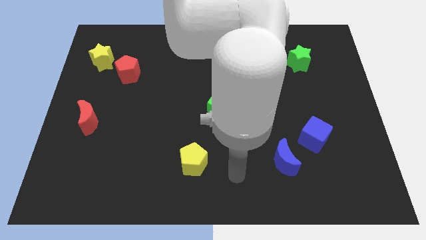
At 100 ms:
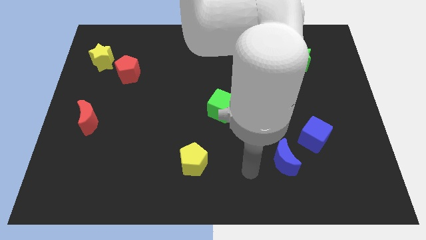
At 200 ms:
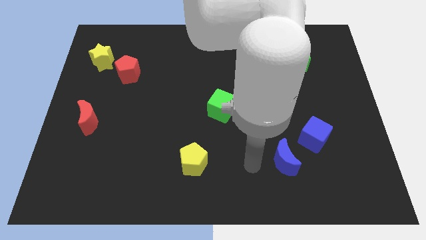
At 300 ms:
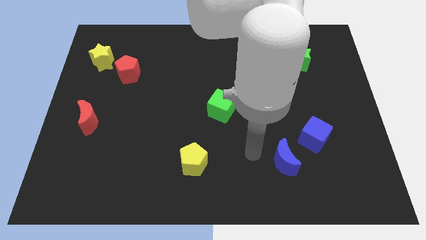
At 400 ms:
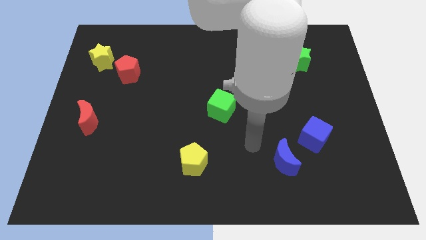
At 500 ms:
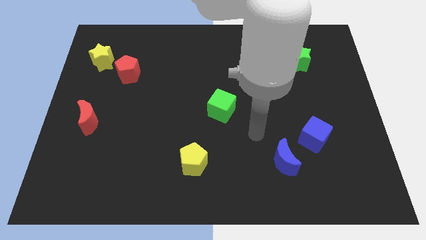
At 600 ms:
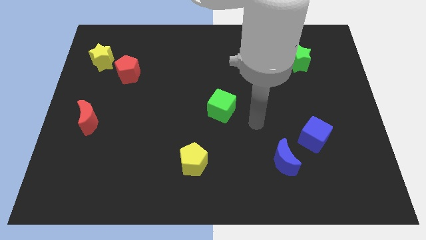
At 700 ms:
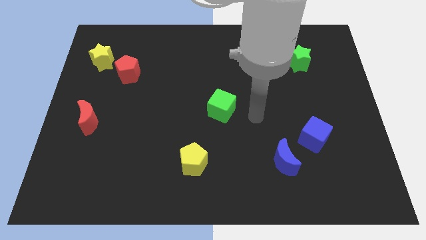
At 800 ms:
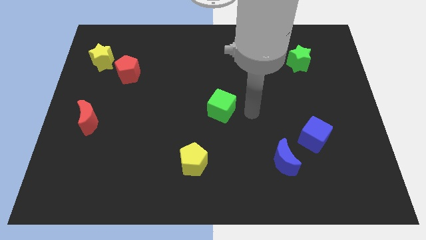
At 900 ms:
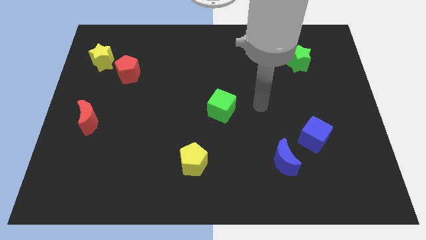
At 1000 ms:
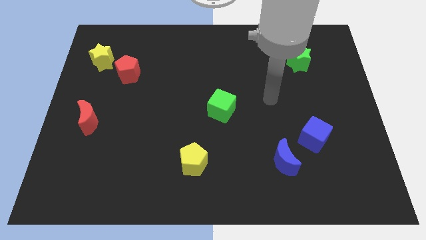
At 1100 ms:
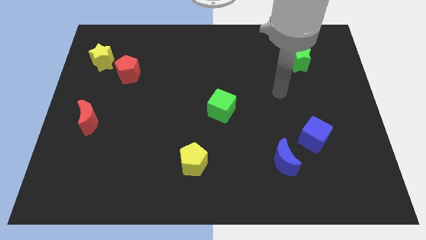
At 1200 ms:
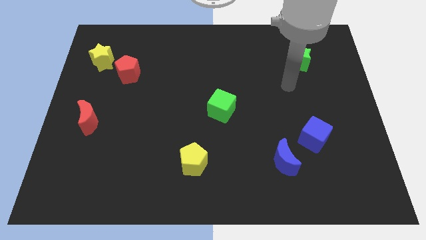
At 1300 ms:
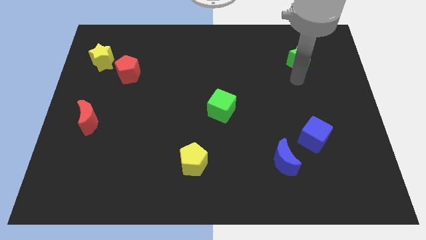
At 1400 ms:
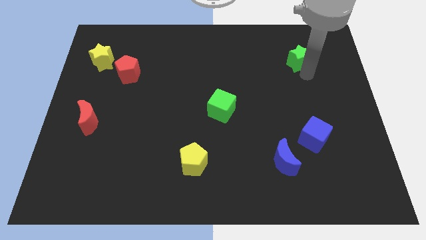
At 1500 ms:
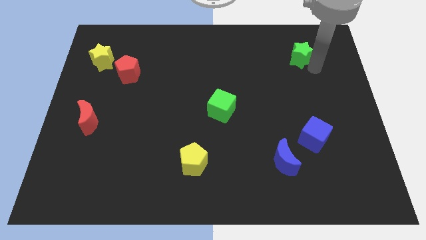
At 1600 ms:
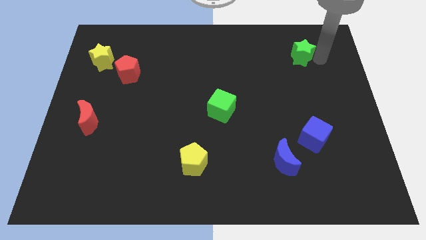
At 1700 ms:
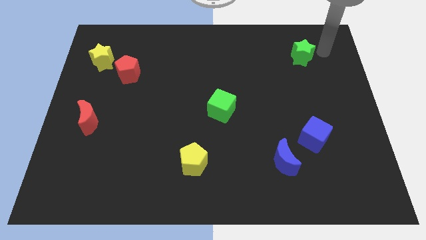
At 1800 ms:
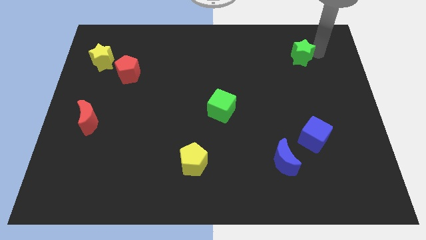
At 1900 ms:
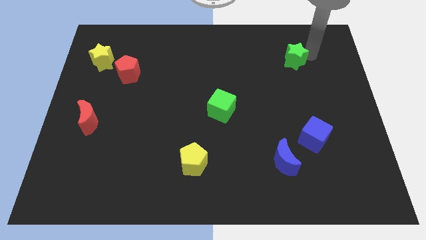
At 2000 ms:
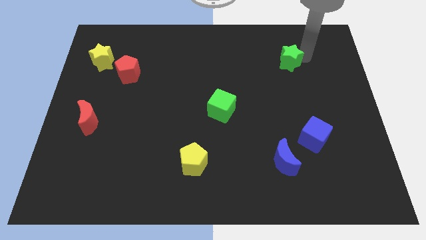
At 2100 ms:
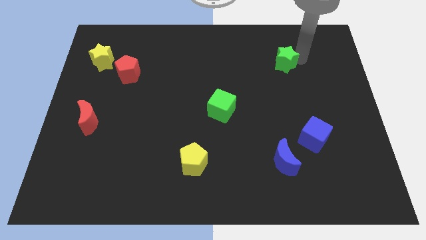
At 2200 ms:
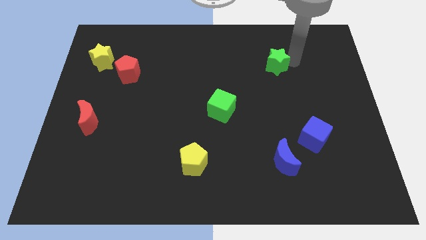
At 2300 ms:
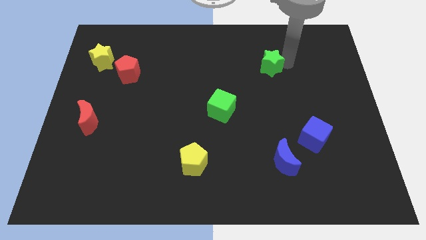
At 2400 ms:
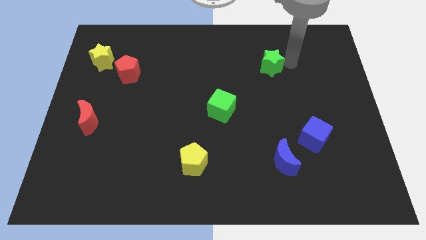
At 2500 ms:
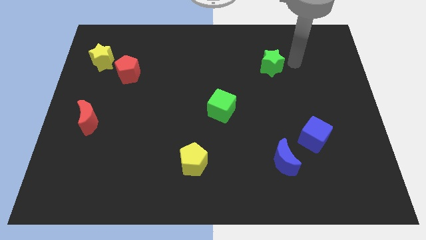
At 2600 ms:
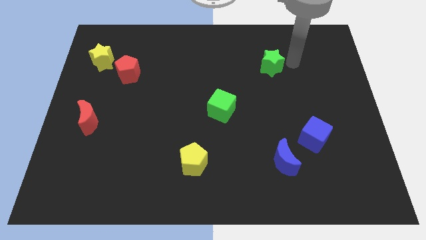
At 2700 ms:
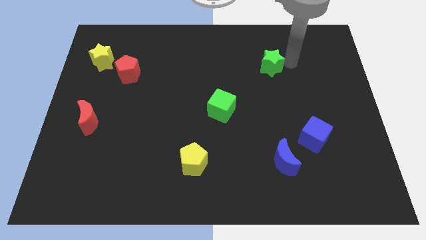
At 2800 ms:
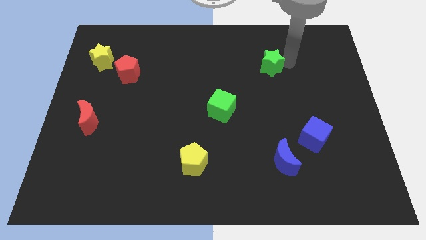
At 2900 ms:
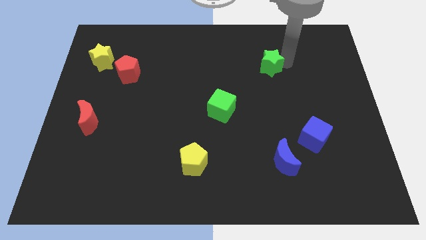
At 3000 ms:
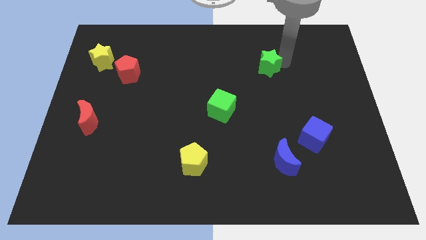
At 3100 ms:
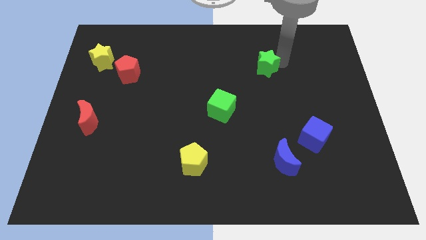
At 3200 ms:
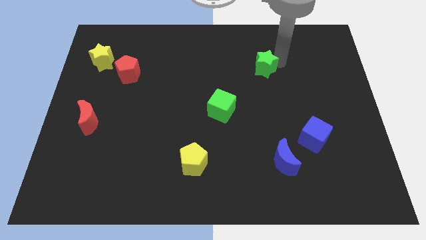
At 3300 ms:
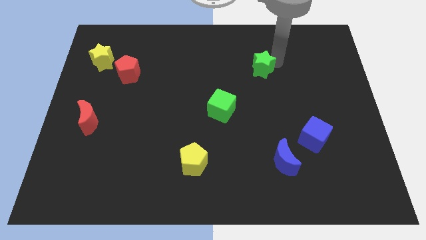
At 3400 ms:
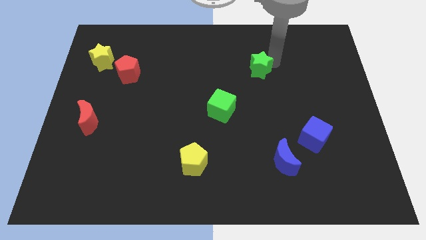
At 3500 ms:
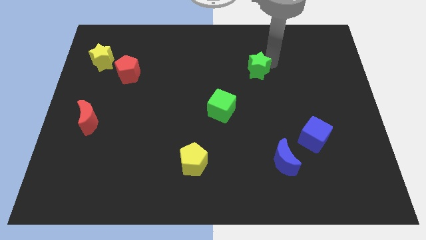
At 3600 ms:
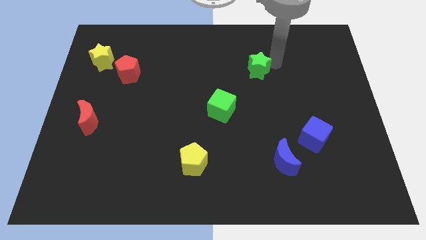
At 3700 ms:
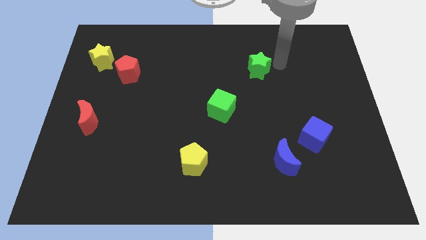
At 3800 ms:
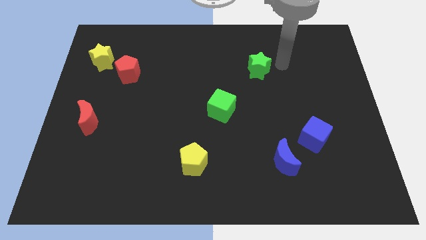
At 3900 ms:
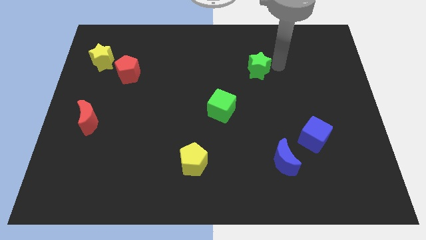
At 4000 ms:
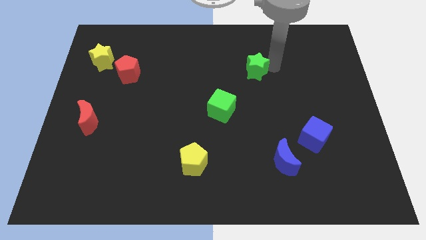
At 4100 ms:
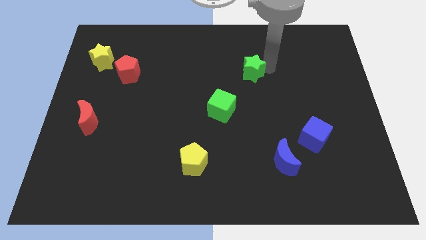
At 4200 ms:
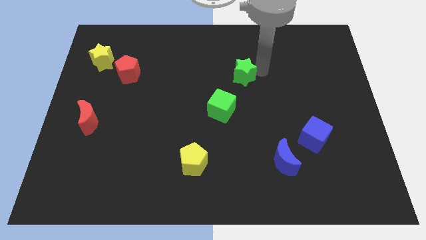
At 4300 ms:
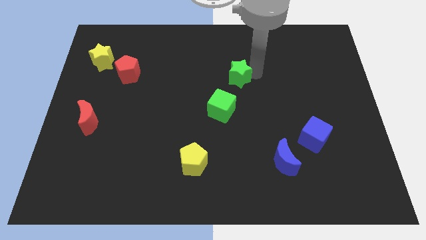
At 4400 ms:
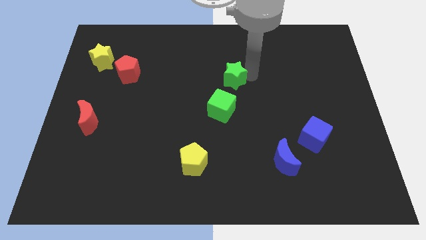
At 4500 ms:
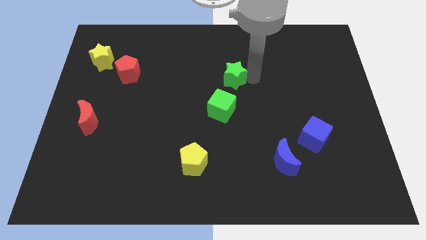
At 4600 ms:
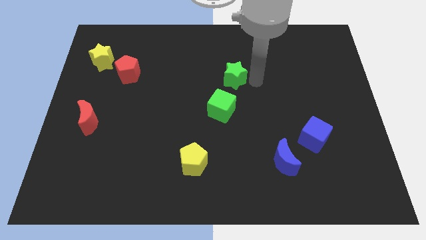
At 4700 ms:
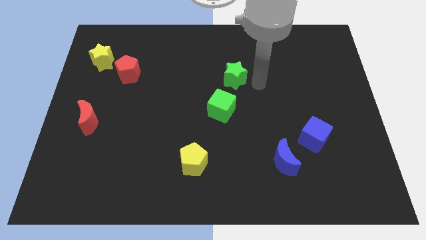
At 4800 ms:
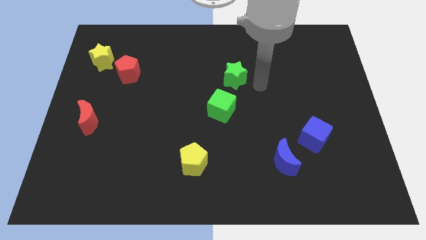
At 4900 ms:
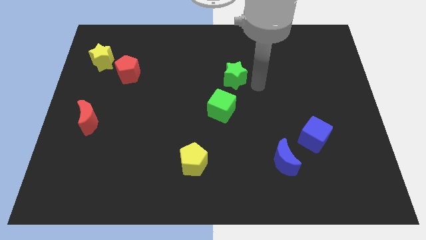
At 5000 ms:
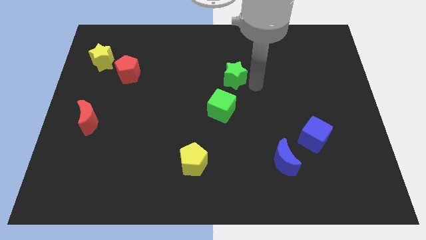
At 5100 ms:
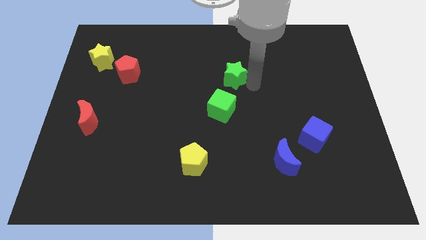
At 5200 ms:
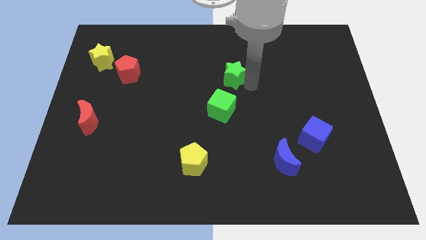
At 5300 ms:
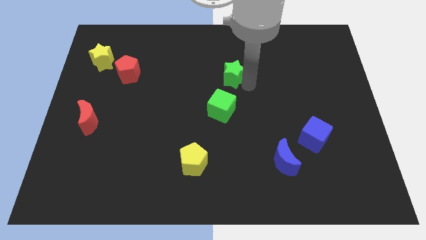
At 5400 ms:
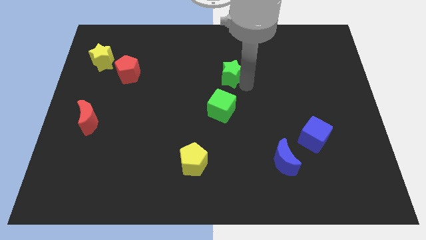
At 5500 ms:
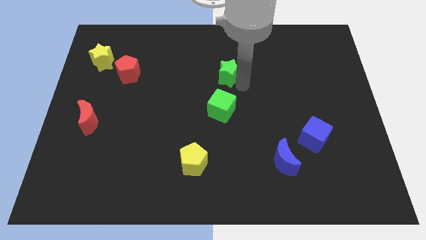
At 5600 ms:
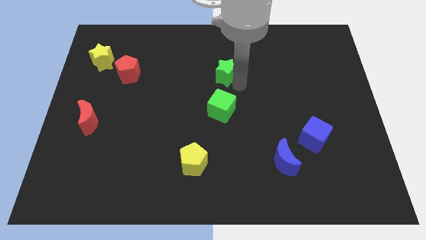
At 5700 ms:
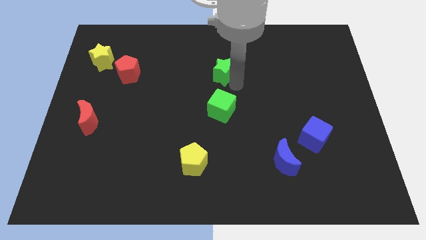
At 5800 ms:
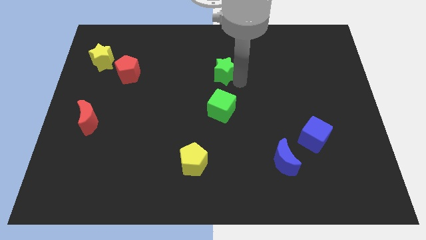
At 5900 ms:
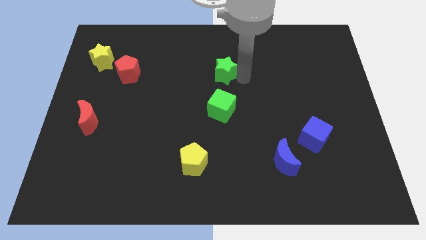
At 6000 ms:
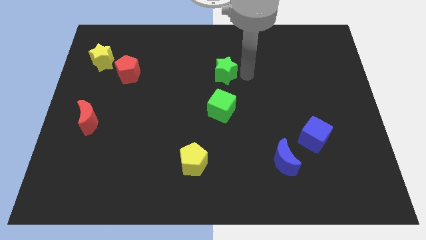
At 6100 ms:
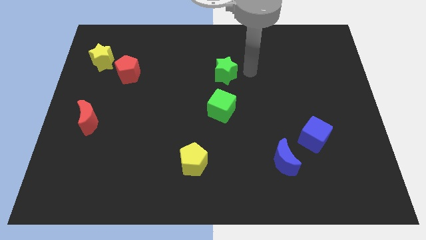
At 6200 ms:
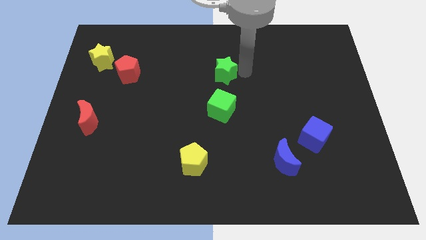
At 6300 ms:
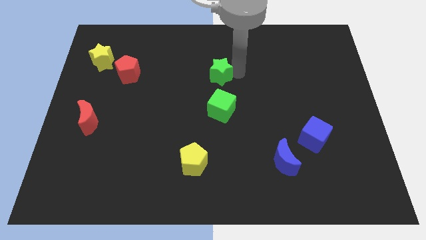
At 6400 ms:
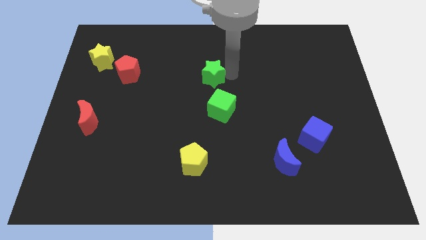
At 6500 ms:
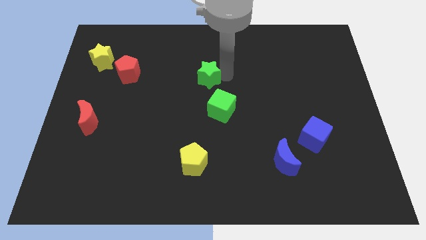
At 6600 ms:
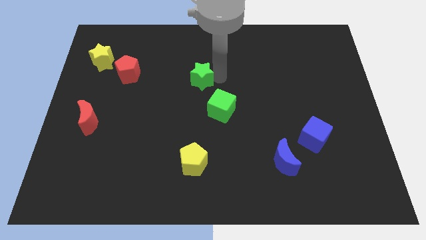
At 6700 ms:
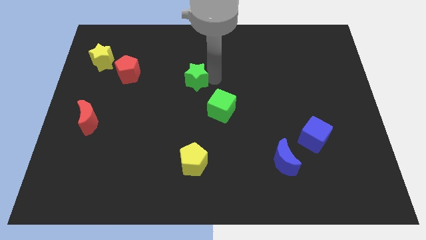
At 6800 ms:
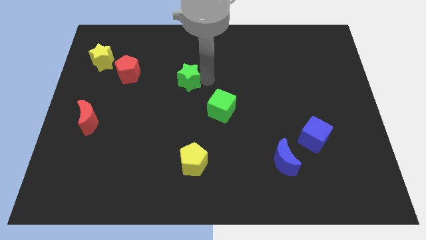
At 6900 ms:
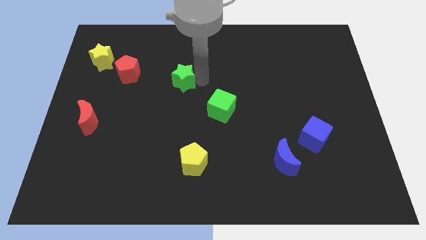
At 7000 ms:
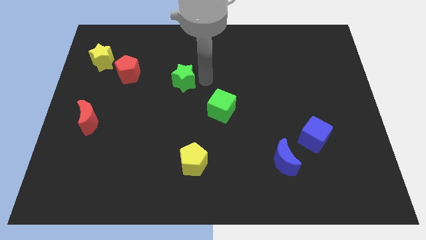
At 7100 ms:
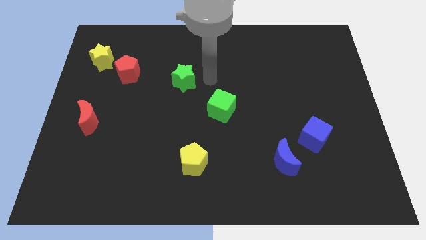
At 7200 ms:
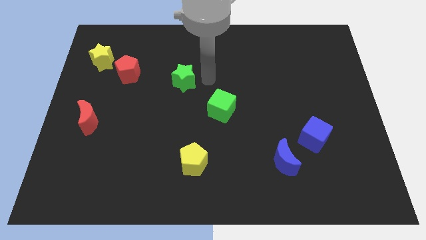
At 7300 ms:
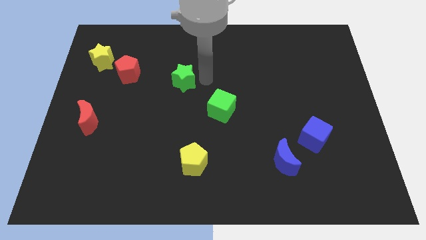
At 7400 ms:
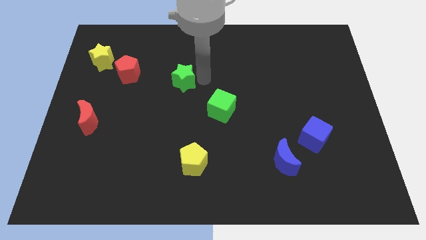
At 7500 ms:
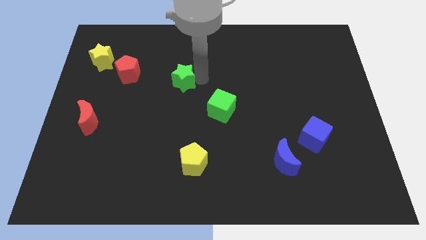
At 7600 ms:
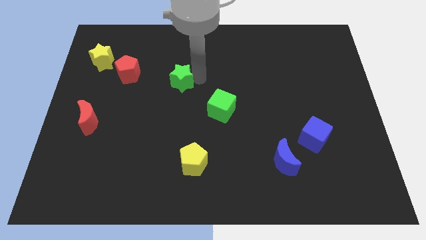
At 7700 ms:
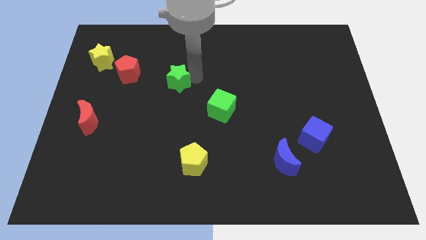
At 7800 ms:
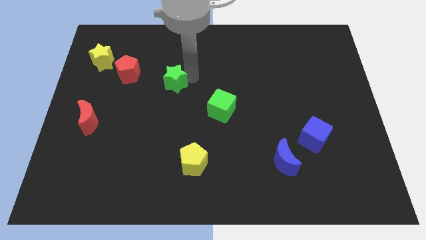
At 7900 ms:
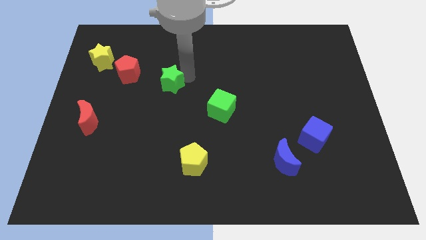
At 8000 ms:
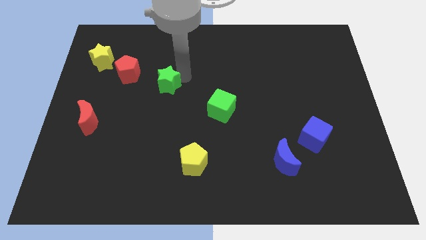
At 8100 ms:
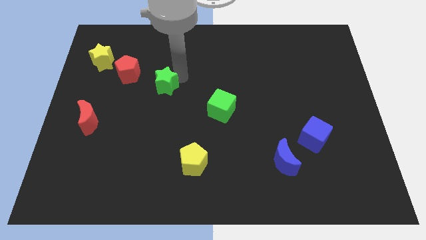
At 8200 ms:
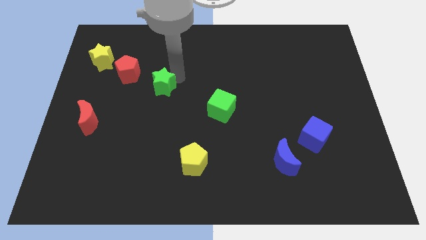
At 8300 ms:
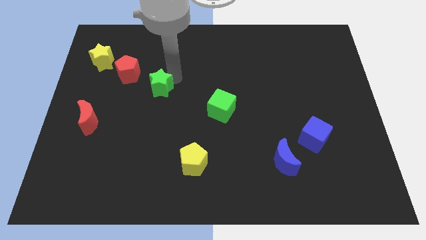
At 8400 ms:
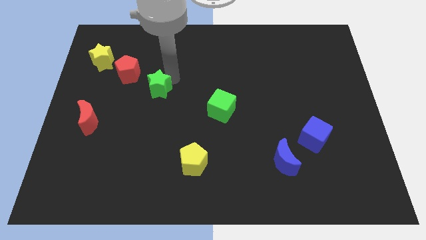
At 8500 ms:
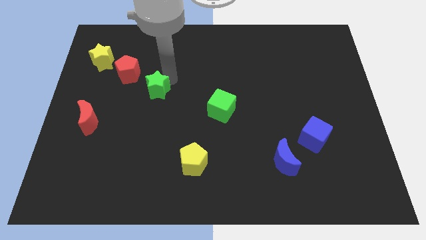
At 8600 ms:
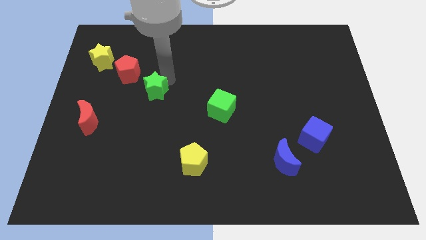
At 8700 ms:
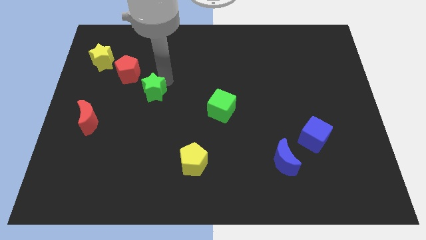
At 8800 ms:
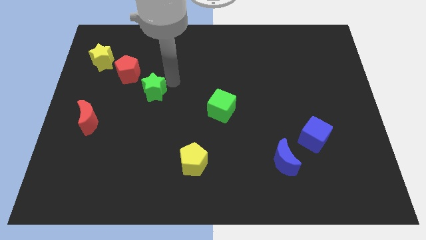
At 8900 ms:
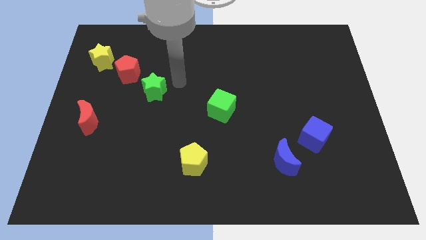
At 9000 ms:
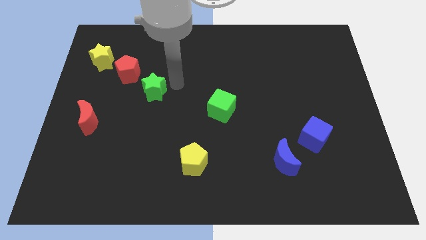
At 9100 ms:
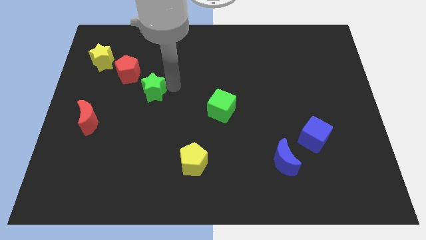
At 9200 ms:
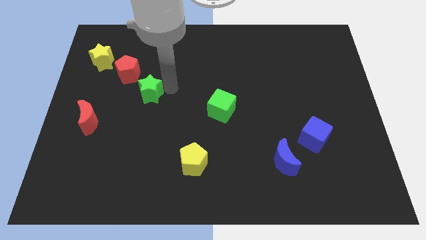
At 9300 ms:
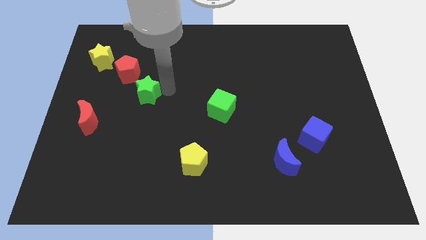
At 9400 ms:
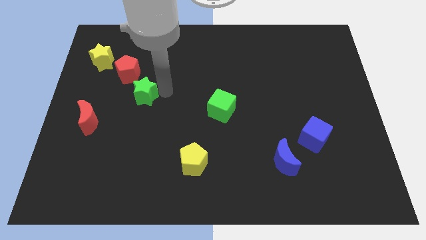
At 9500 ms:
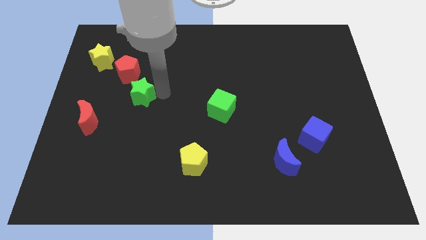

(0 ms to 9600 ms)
put the green star to the bottom of the red pentagon
